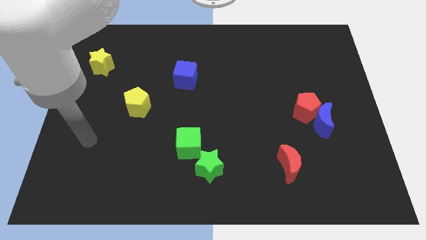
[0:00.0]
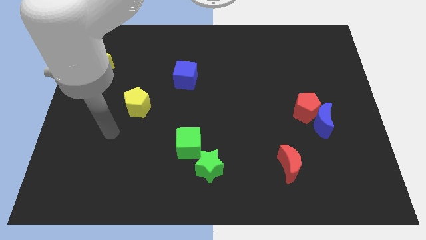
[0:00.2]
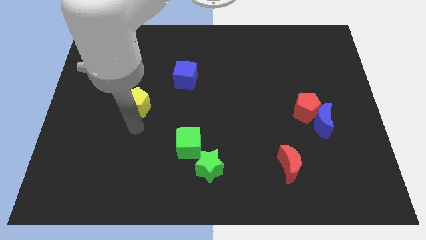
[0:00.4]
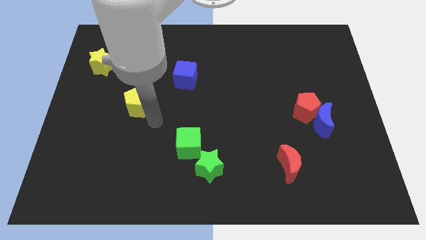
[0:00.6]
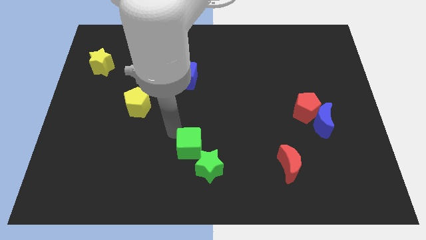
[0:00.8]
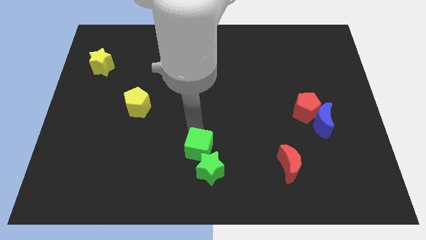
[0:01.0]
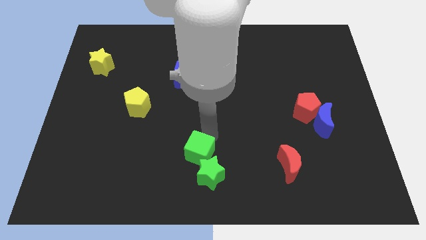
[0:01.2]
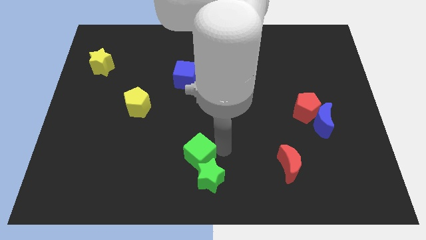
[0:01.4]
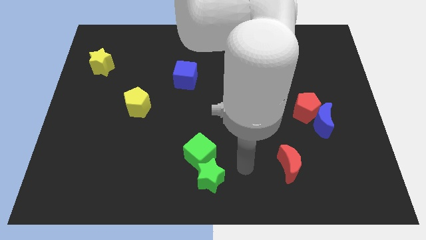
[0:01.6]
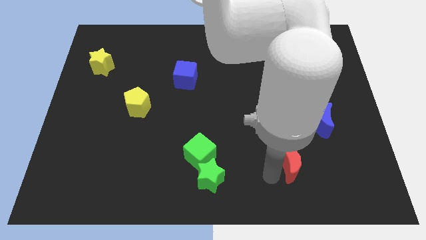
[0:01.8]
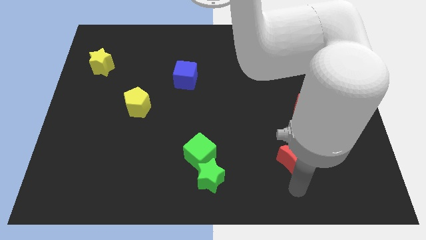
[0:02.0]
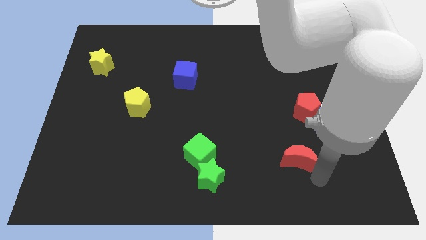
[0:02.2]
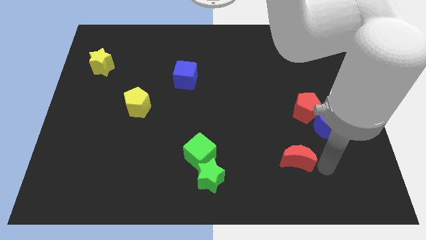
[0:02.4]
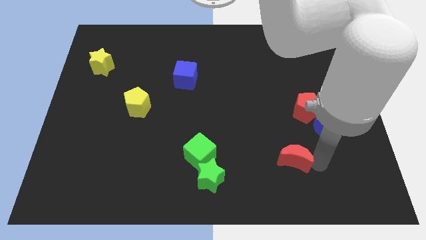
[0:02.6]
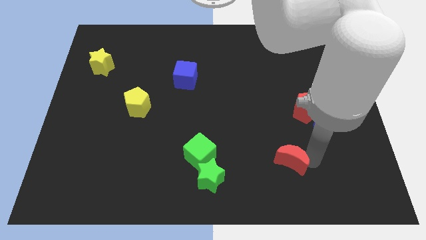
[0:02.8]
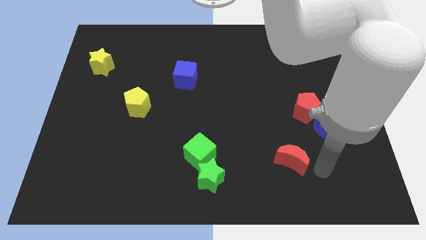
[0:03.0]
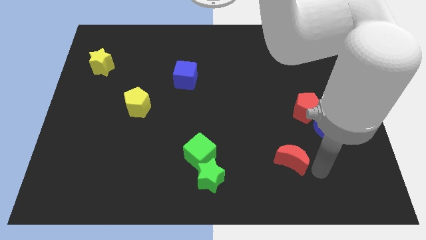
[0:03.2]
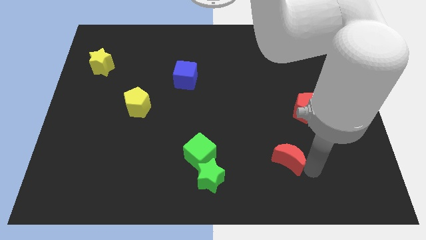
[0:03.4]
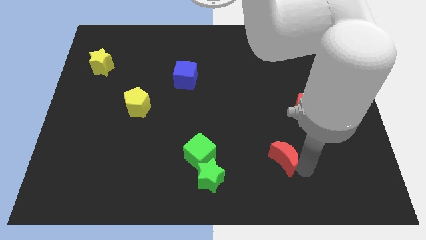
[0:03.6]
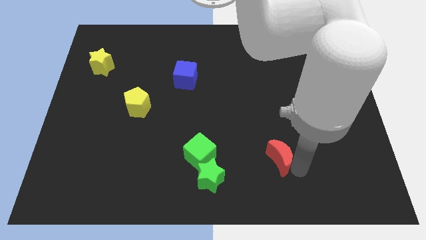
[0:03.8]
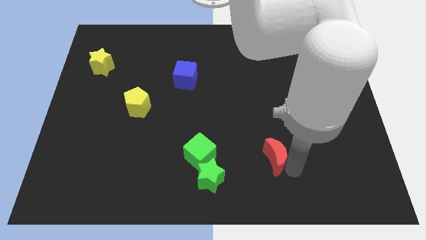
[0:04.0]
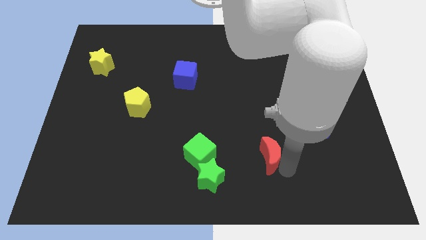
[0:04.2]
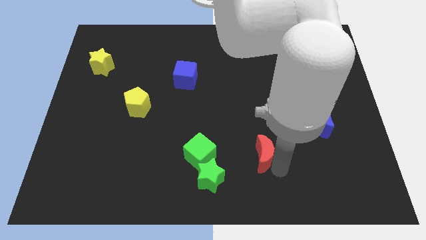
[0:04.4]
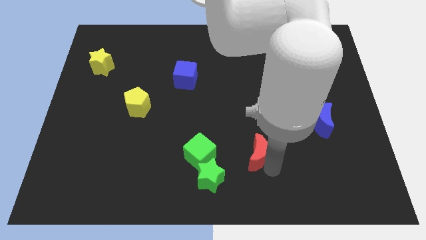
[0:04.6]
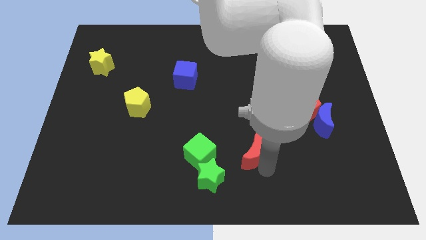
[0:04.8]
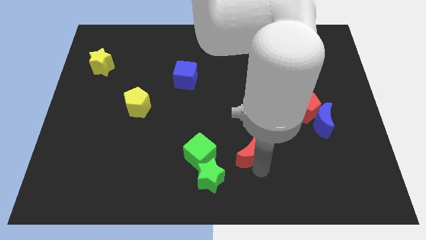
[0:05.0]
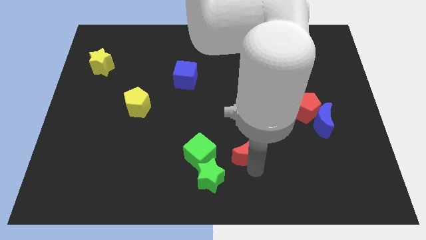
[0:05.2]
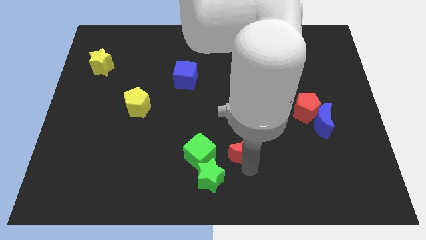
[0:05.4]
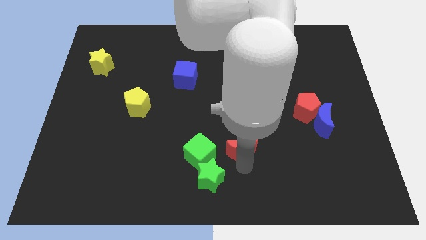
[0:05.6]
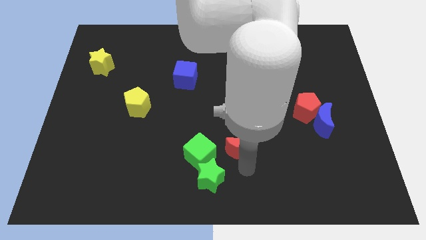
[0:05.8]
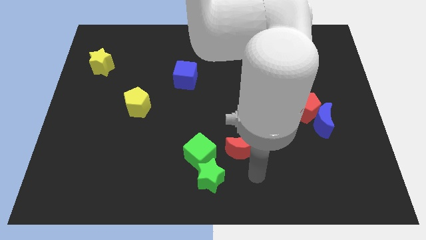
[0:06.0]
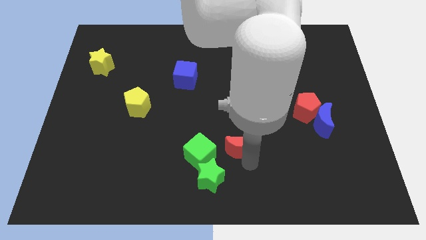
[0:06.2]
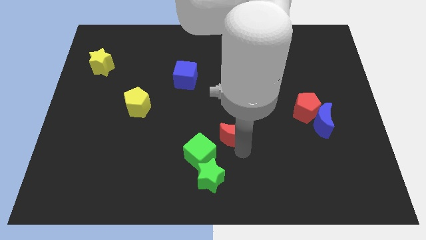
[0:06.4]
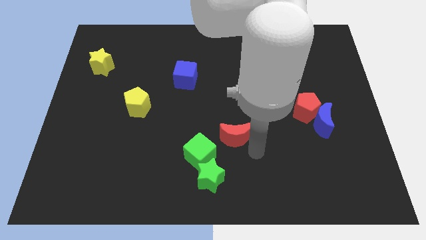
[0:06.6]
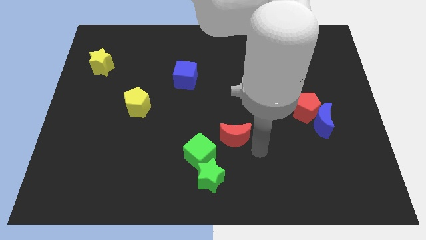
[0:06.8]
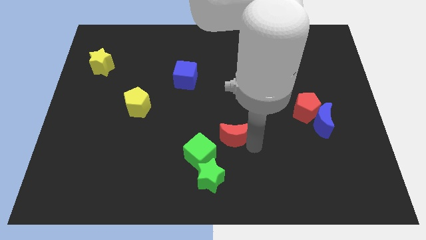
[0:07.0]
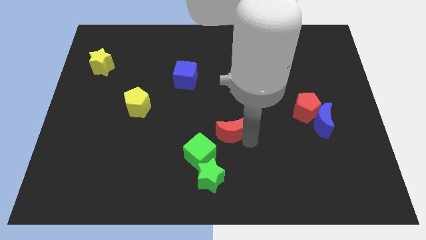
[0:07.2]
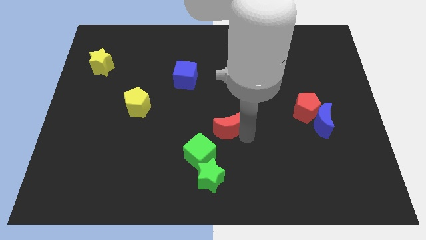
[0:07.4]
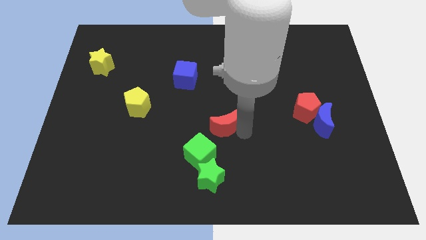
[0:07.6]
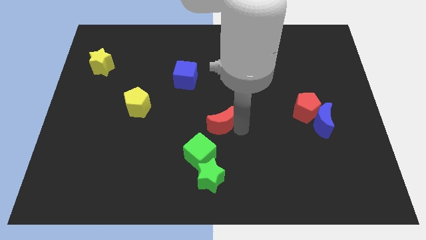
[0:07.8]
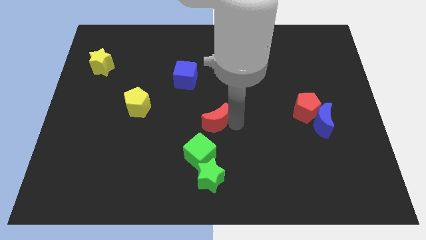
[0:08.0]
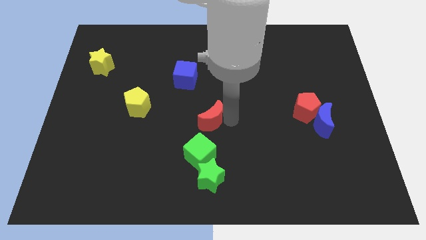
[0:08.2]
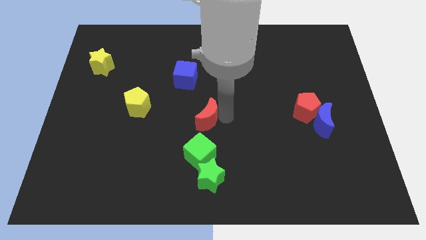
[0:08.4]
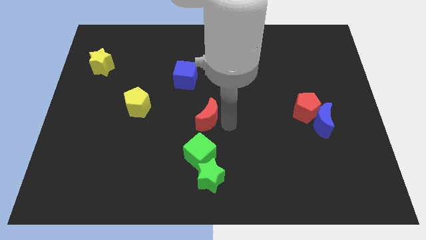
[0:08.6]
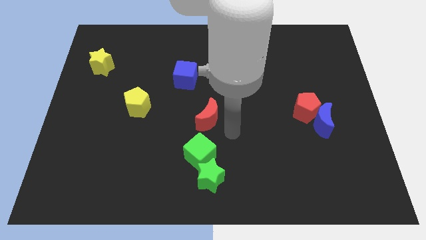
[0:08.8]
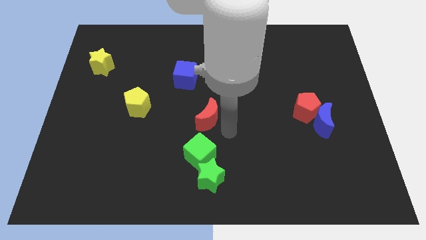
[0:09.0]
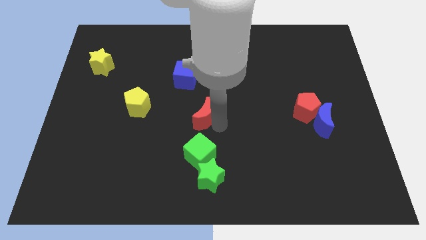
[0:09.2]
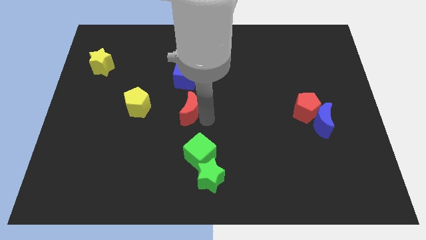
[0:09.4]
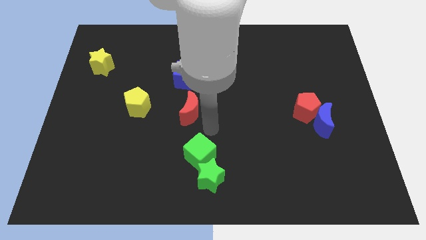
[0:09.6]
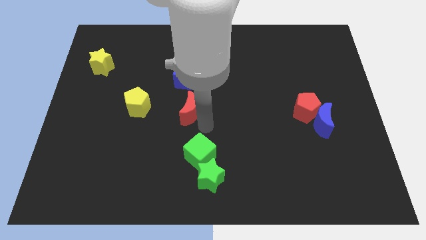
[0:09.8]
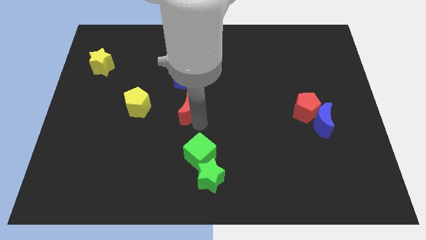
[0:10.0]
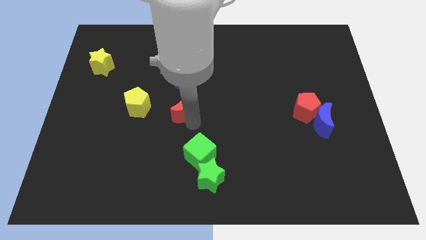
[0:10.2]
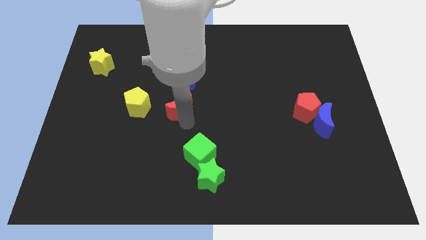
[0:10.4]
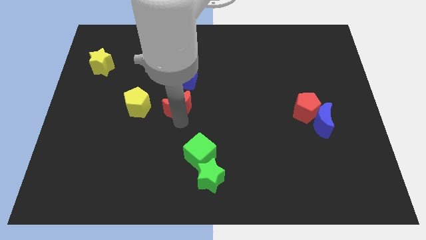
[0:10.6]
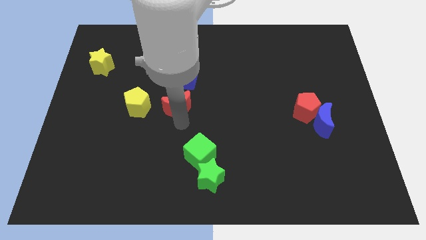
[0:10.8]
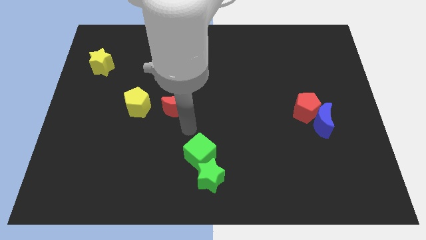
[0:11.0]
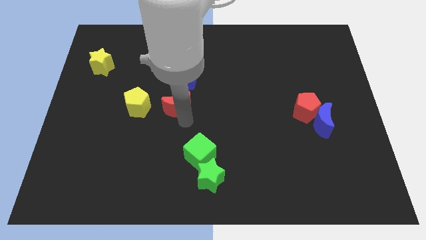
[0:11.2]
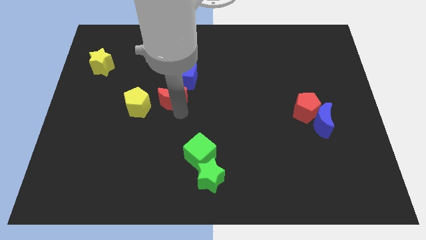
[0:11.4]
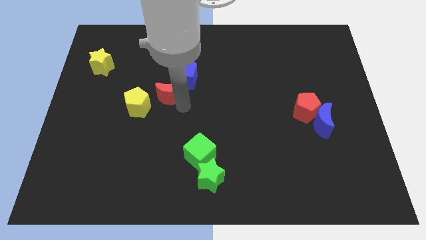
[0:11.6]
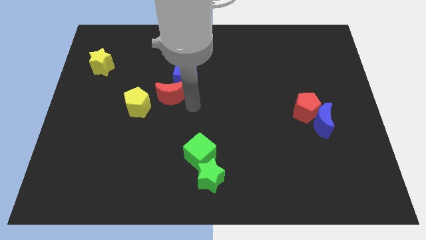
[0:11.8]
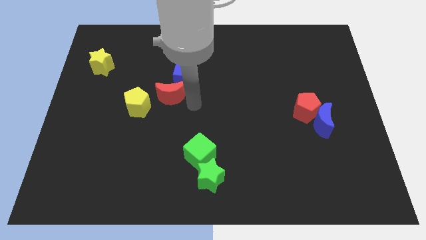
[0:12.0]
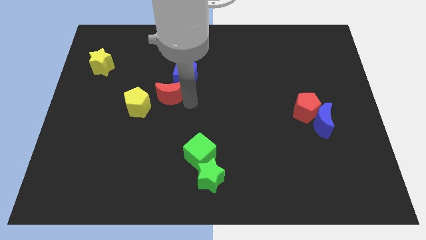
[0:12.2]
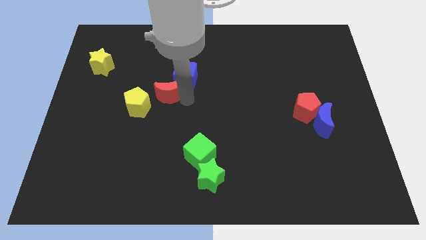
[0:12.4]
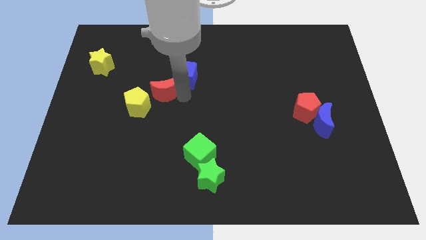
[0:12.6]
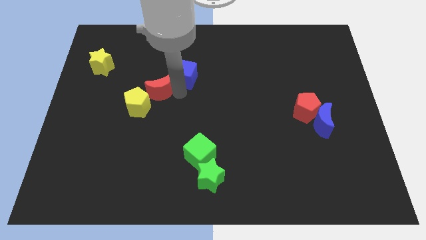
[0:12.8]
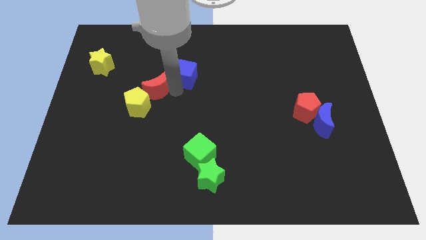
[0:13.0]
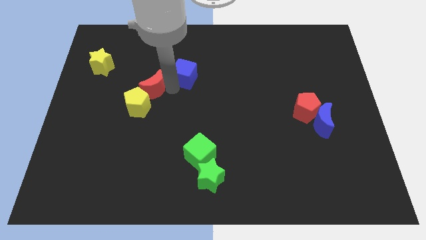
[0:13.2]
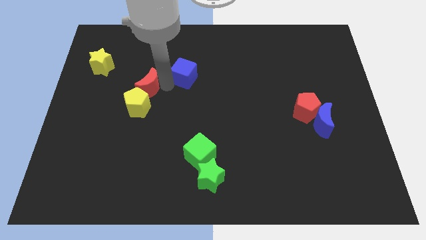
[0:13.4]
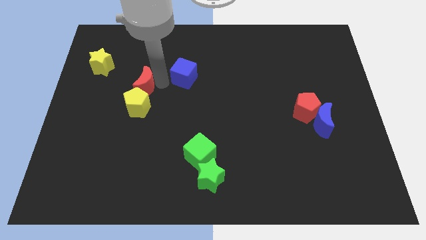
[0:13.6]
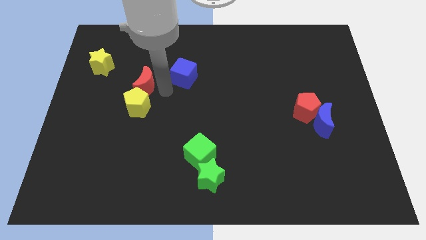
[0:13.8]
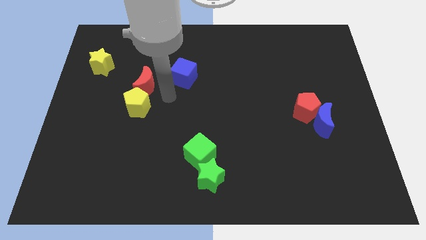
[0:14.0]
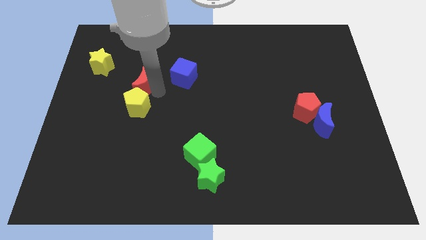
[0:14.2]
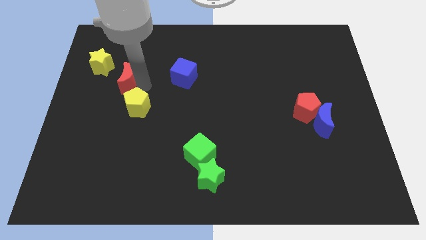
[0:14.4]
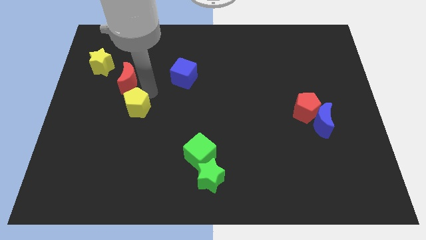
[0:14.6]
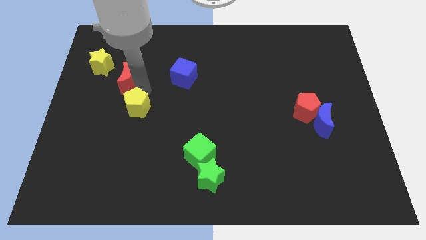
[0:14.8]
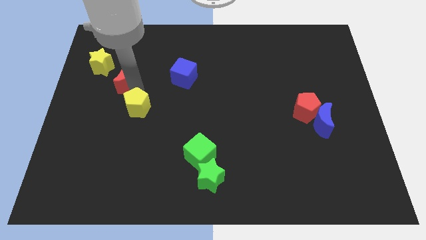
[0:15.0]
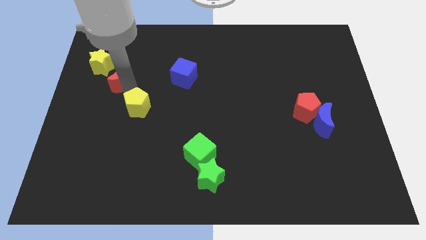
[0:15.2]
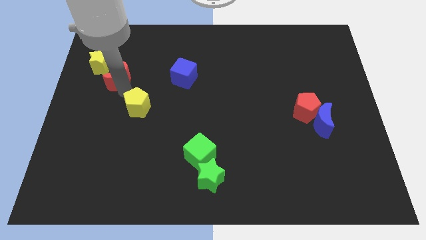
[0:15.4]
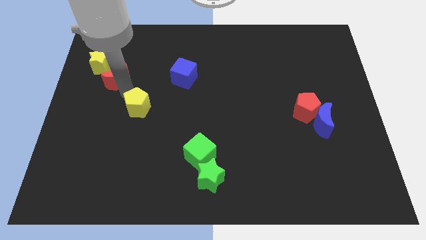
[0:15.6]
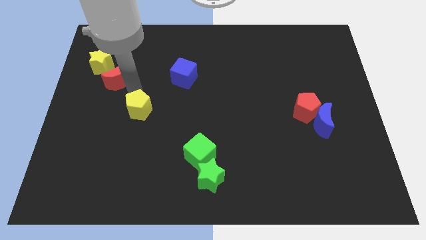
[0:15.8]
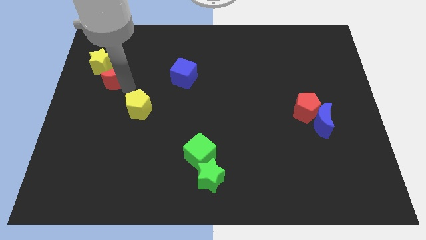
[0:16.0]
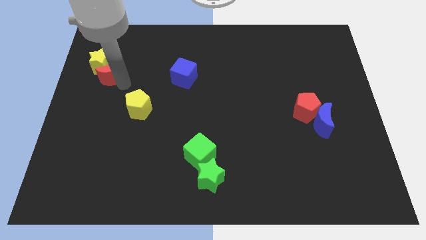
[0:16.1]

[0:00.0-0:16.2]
push the red moon to the yellow star

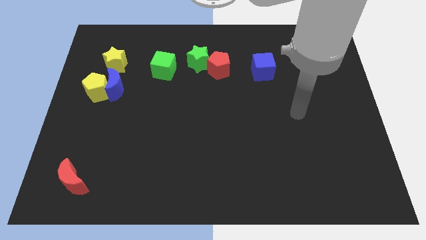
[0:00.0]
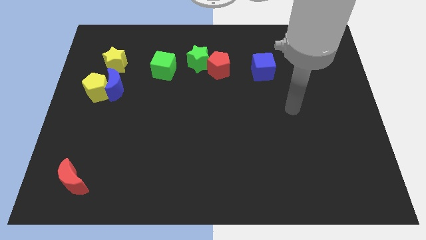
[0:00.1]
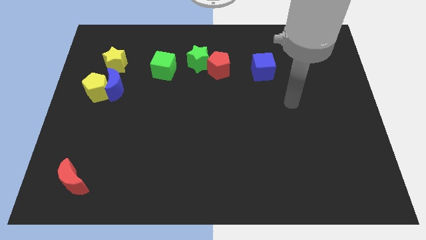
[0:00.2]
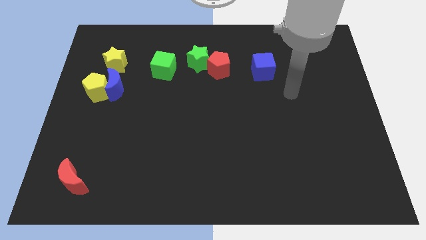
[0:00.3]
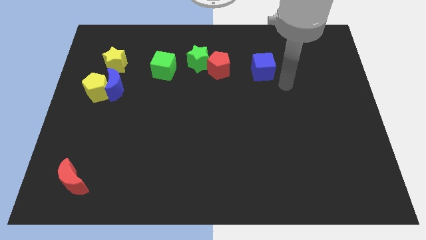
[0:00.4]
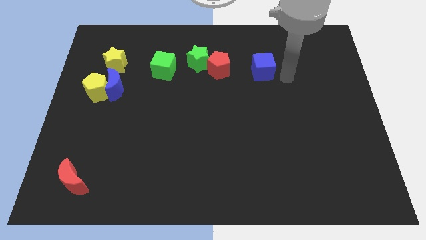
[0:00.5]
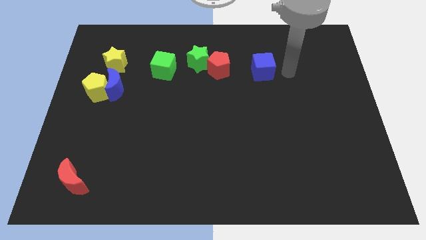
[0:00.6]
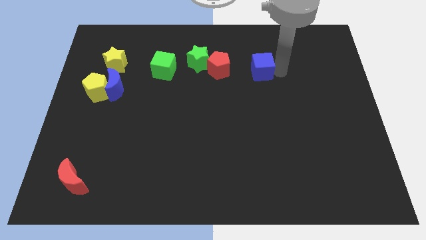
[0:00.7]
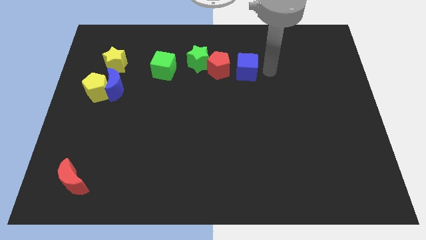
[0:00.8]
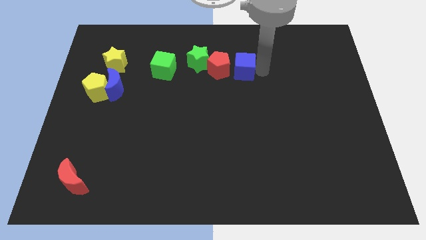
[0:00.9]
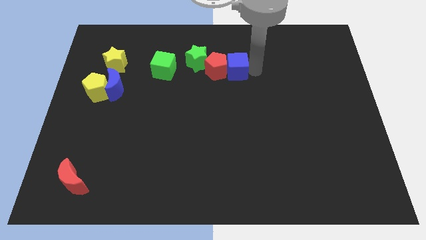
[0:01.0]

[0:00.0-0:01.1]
slide the blue cube next to the red pentagon
